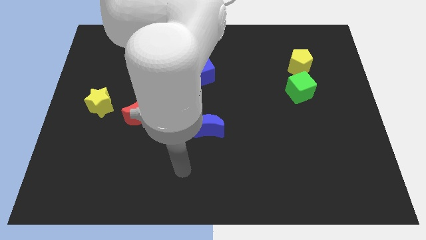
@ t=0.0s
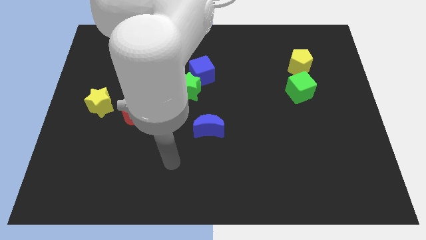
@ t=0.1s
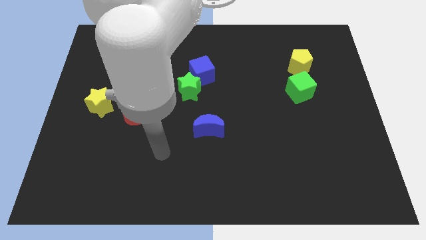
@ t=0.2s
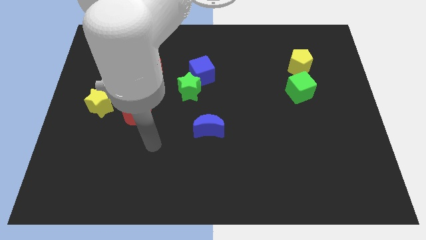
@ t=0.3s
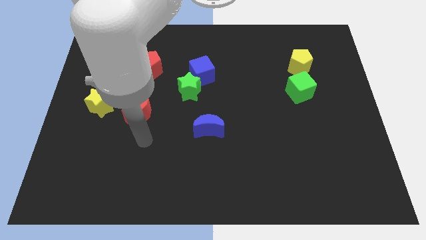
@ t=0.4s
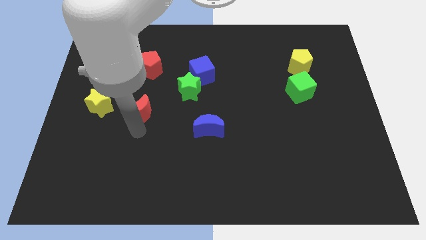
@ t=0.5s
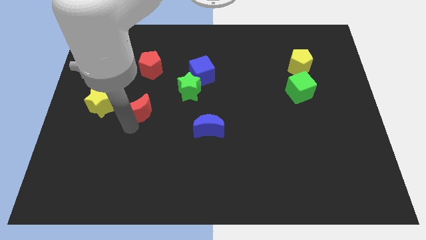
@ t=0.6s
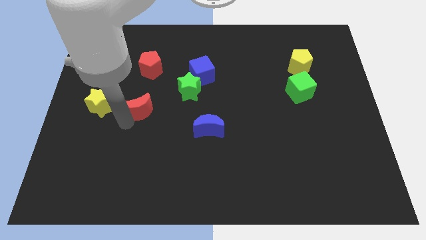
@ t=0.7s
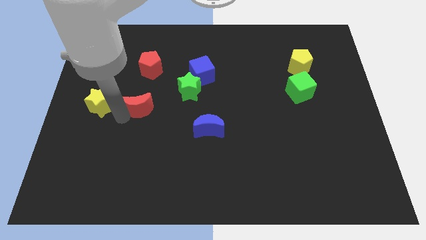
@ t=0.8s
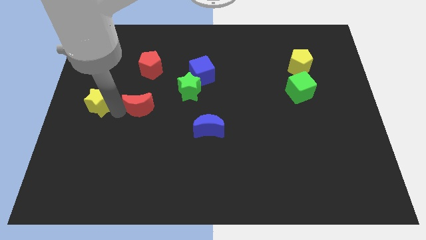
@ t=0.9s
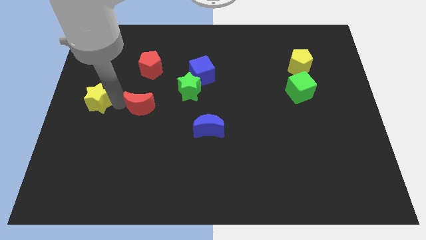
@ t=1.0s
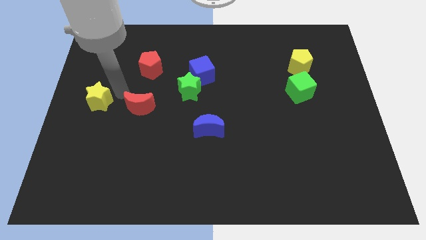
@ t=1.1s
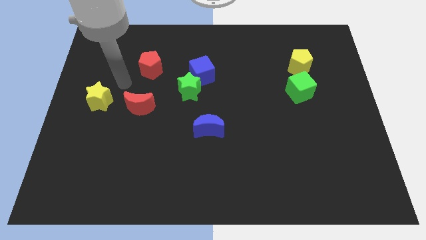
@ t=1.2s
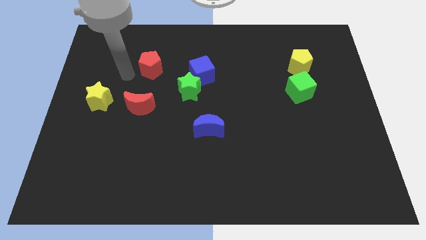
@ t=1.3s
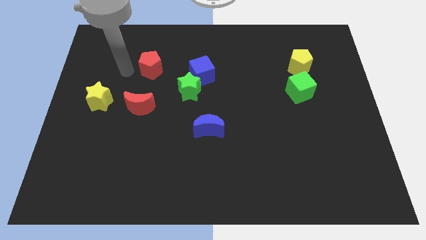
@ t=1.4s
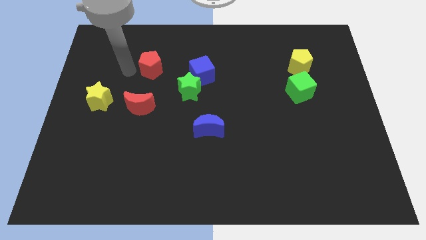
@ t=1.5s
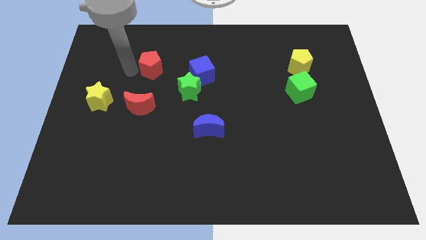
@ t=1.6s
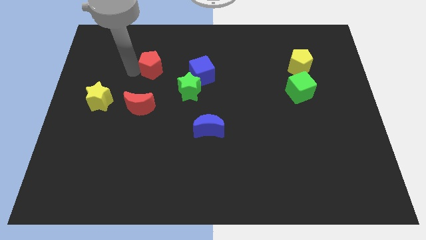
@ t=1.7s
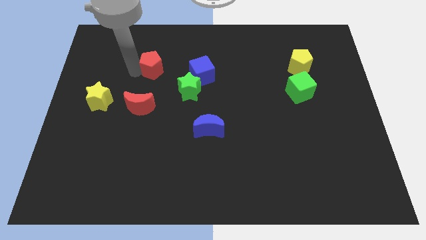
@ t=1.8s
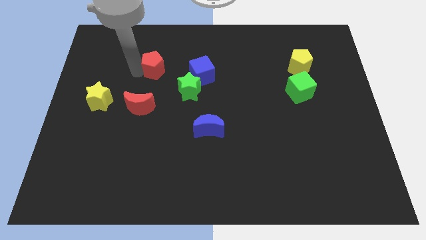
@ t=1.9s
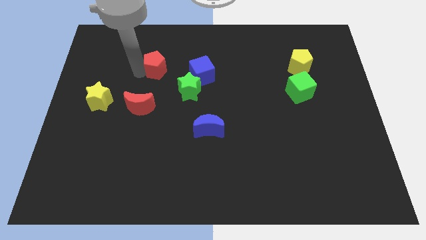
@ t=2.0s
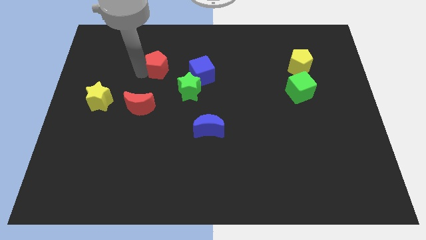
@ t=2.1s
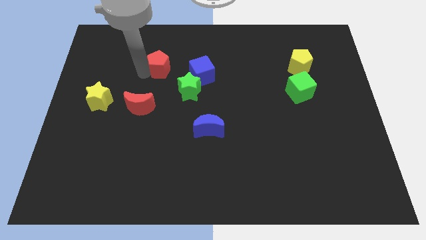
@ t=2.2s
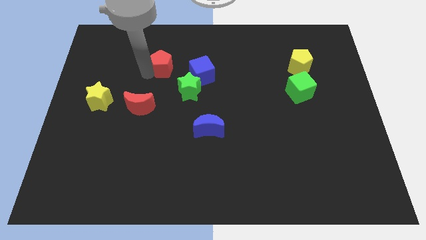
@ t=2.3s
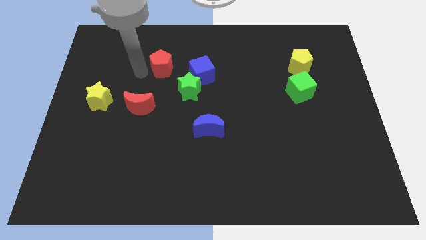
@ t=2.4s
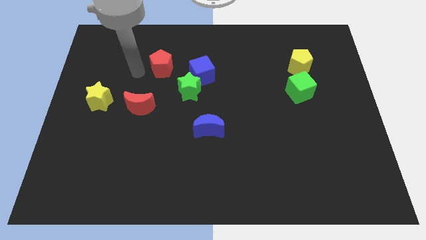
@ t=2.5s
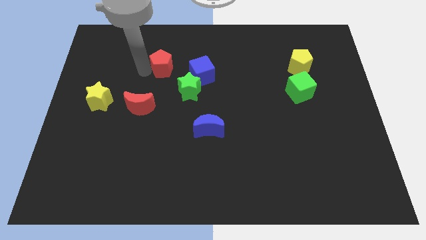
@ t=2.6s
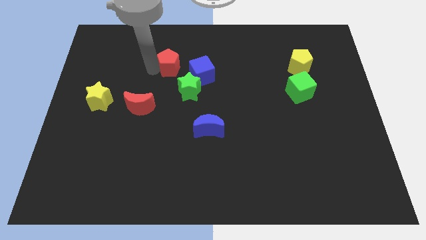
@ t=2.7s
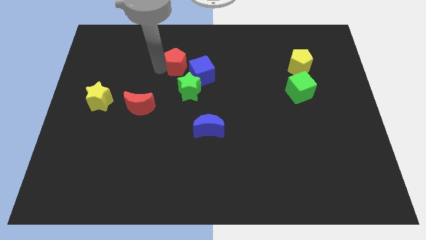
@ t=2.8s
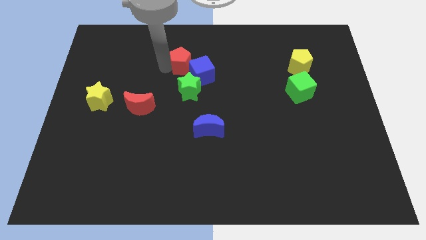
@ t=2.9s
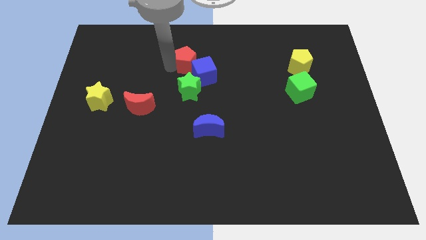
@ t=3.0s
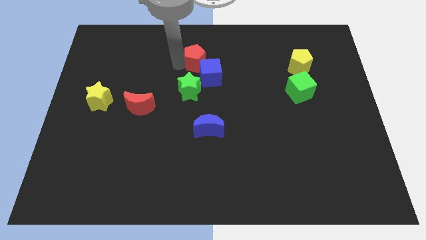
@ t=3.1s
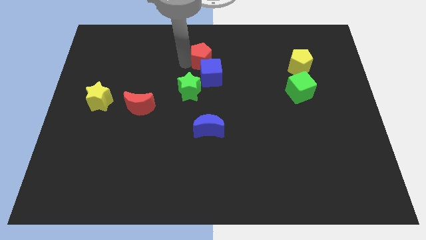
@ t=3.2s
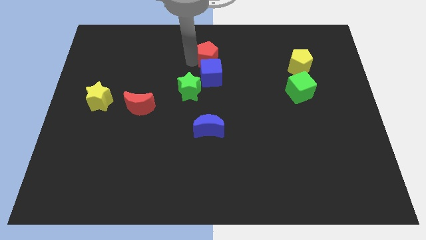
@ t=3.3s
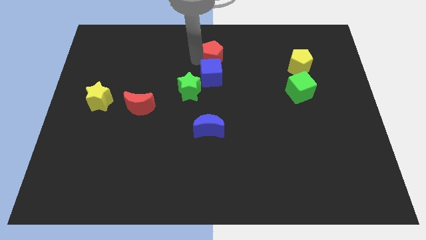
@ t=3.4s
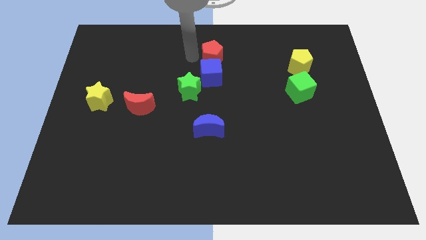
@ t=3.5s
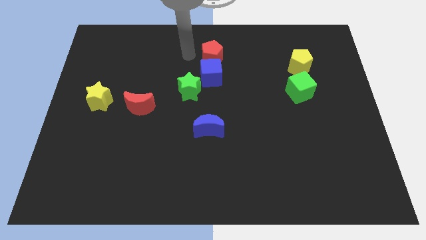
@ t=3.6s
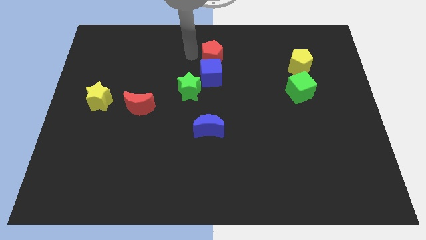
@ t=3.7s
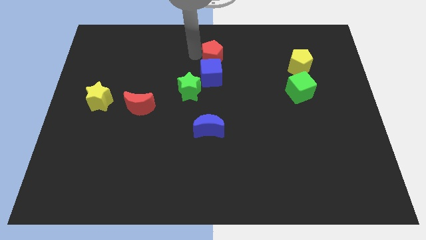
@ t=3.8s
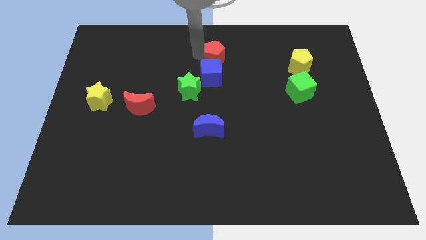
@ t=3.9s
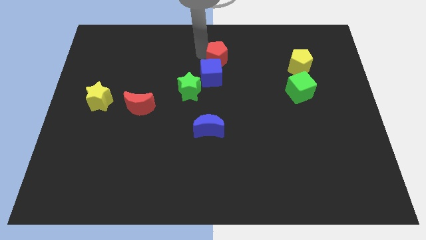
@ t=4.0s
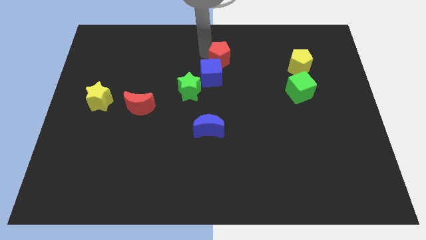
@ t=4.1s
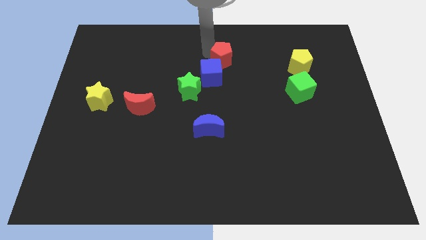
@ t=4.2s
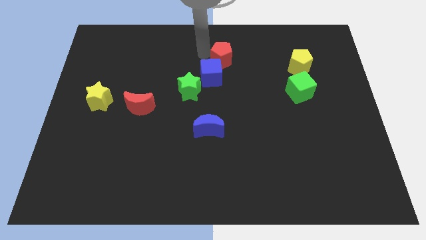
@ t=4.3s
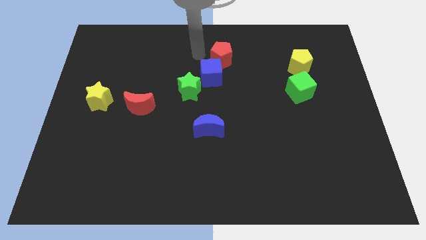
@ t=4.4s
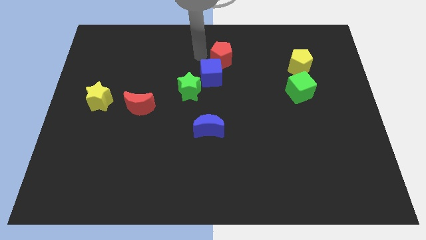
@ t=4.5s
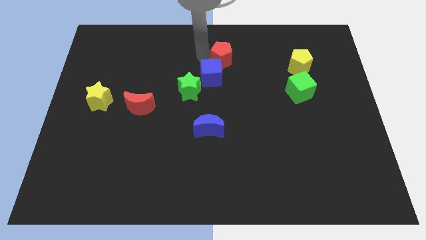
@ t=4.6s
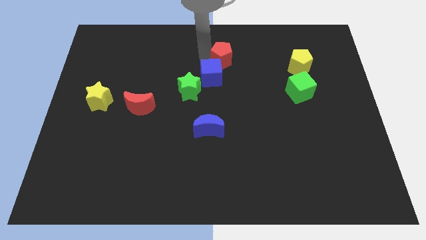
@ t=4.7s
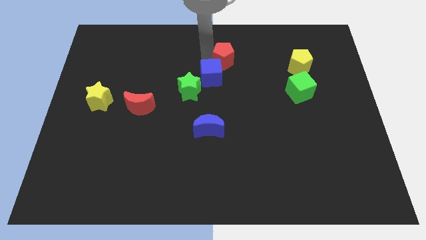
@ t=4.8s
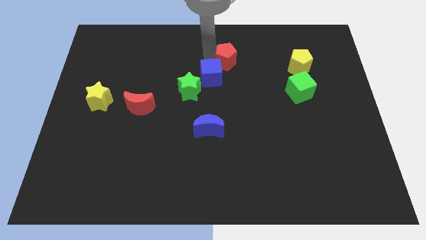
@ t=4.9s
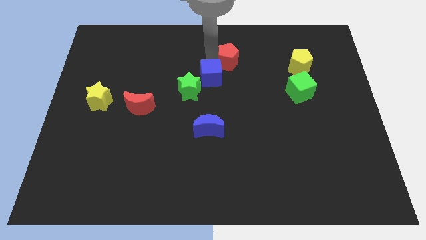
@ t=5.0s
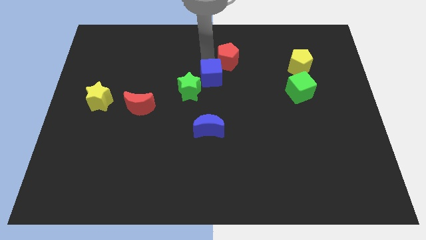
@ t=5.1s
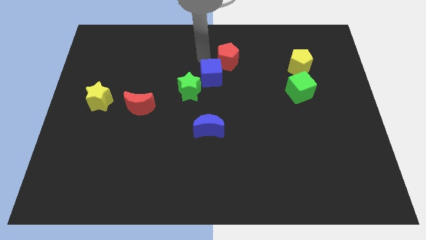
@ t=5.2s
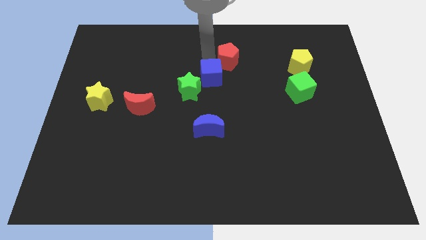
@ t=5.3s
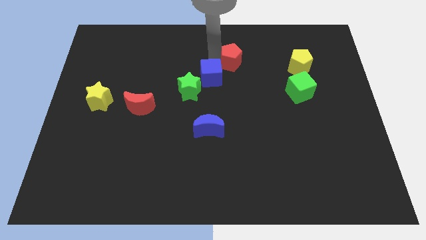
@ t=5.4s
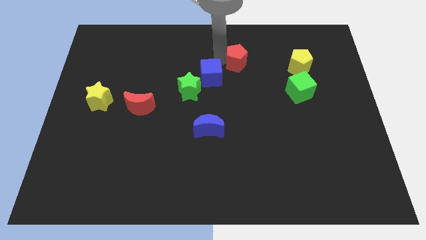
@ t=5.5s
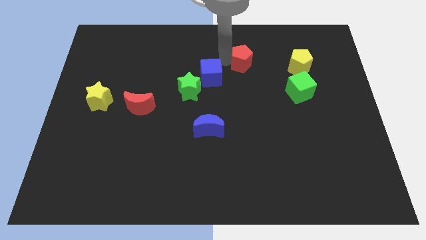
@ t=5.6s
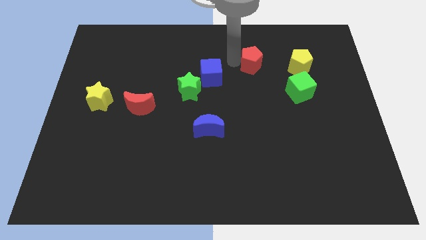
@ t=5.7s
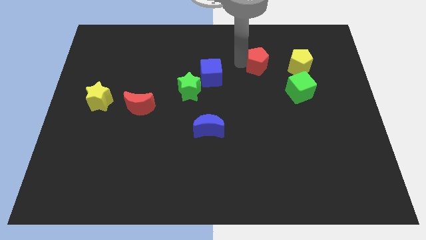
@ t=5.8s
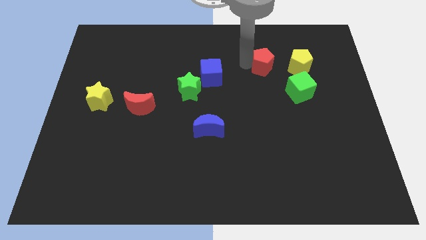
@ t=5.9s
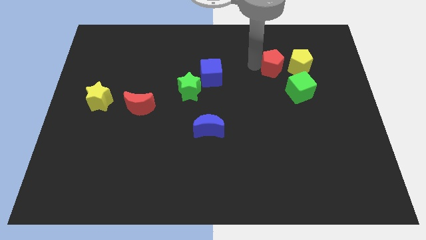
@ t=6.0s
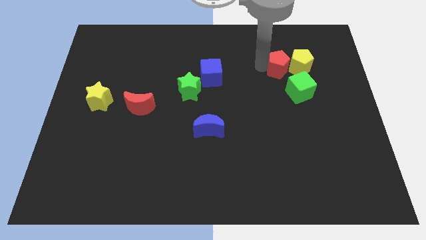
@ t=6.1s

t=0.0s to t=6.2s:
slide the red pentagon close to the yellow pentagon

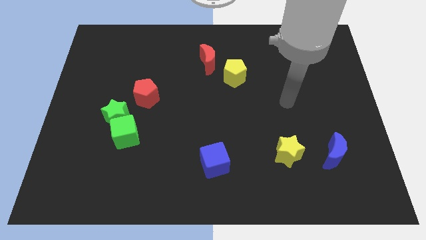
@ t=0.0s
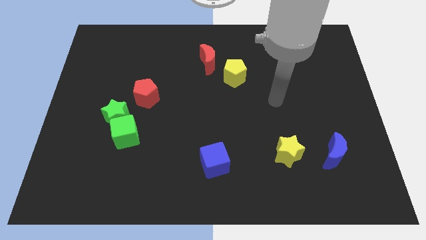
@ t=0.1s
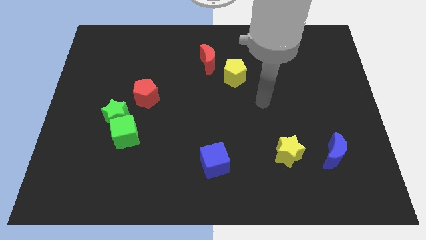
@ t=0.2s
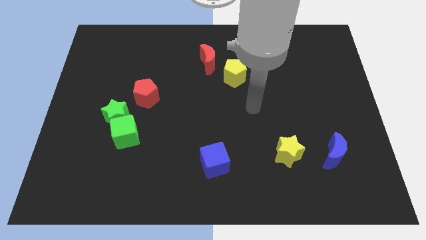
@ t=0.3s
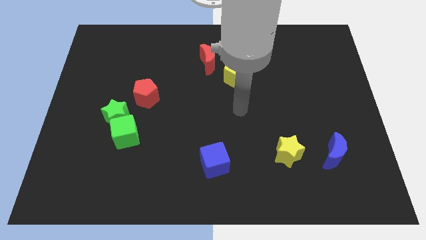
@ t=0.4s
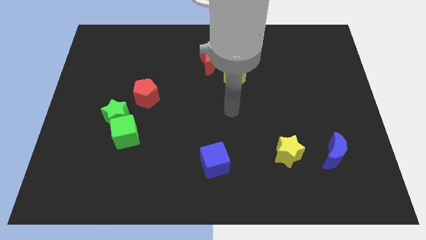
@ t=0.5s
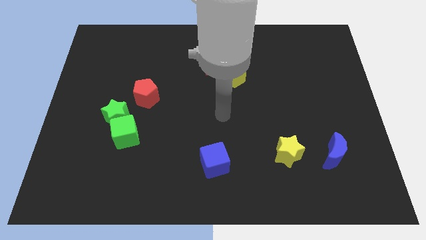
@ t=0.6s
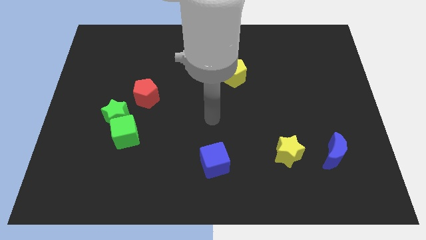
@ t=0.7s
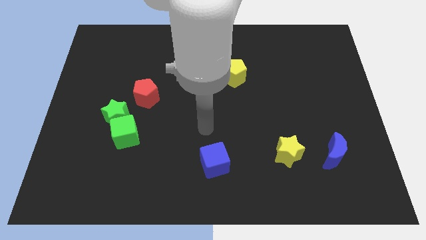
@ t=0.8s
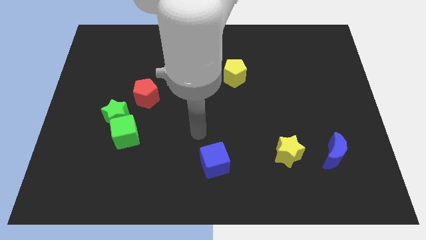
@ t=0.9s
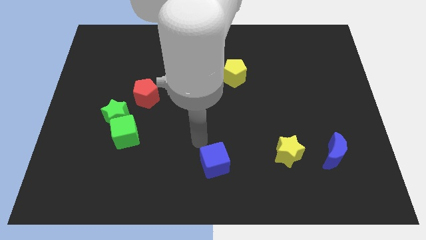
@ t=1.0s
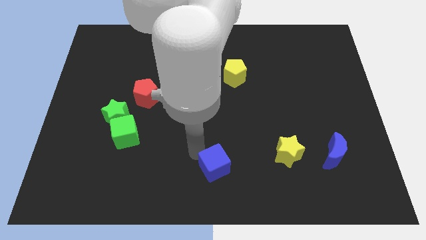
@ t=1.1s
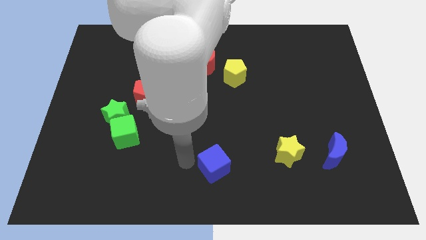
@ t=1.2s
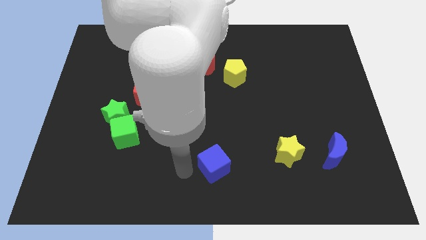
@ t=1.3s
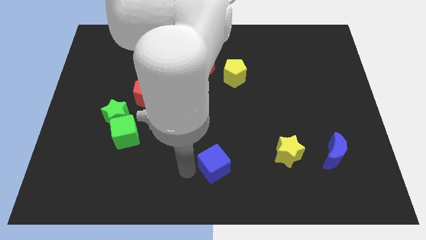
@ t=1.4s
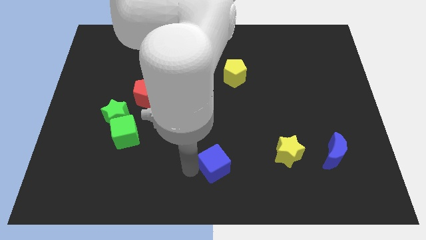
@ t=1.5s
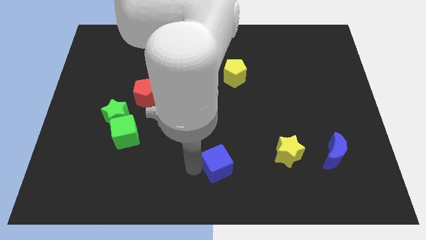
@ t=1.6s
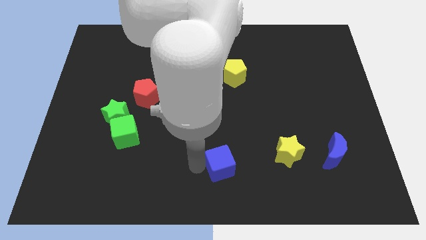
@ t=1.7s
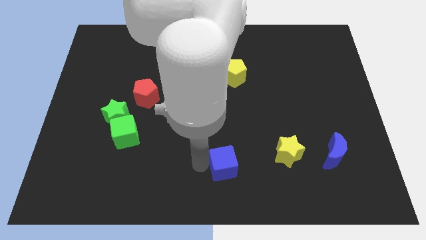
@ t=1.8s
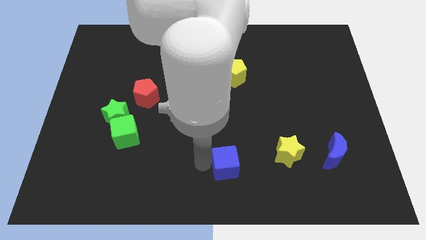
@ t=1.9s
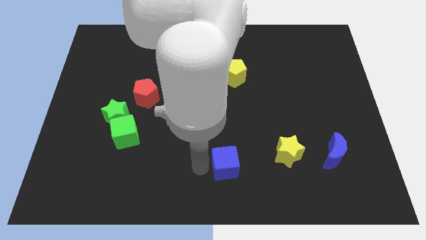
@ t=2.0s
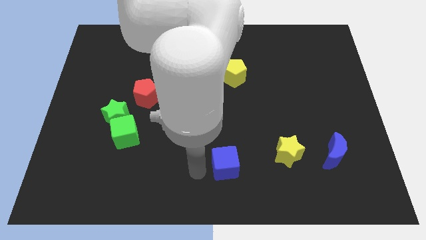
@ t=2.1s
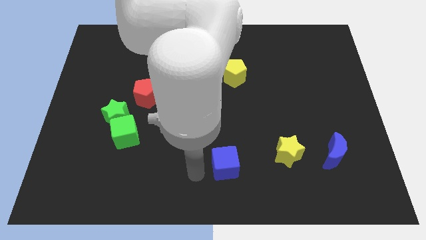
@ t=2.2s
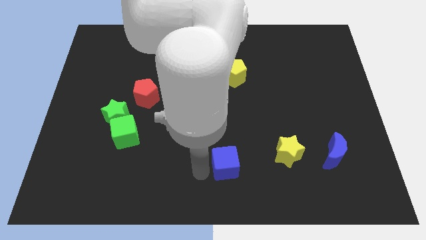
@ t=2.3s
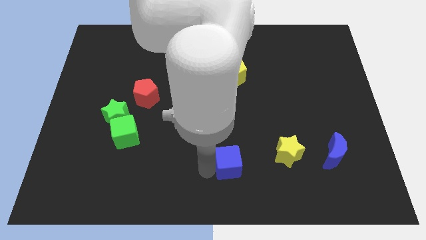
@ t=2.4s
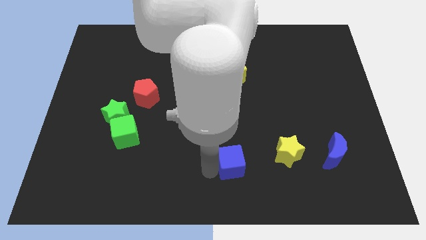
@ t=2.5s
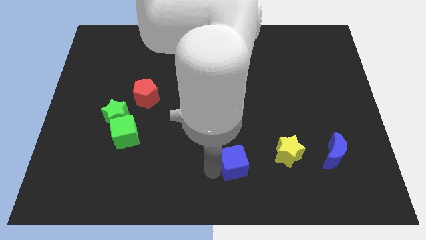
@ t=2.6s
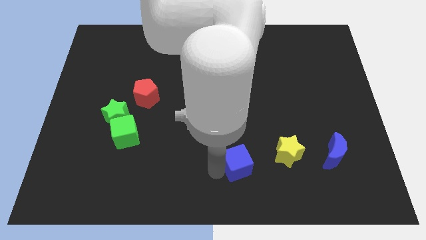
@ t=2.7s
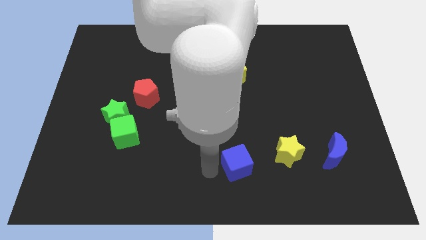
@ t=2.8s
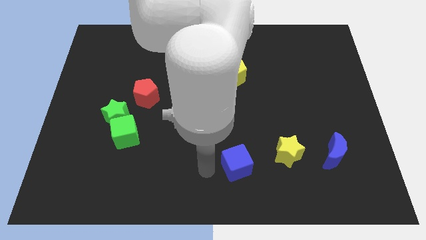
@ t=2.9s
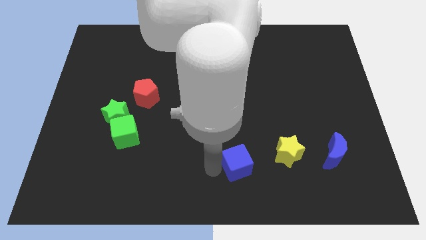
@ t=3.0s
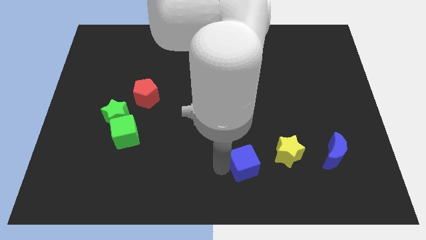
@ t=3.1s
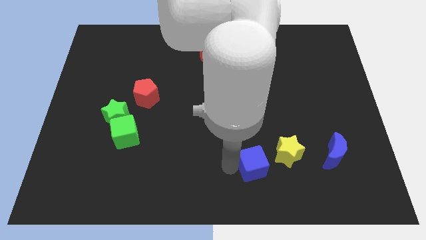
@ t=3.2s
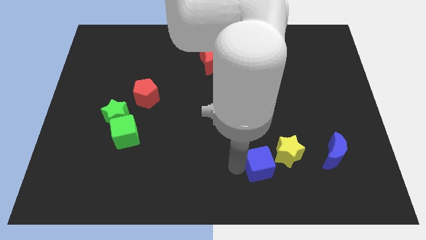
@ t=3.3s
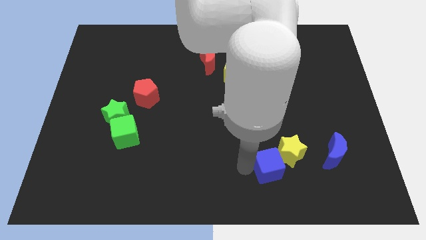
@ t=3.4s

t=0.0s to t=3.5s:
slide the blue cube towards the yellow star
